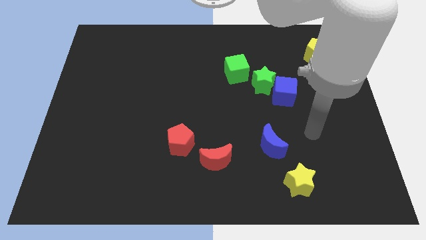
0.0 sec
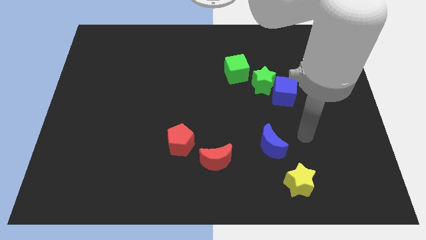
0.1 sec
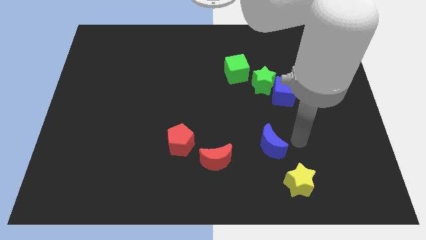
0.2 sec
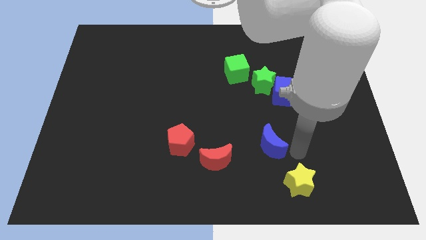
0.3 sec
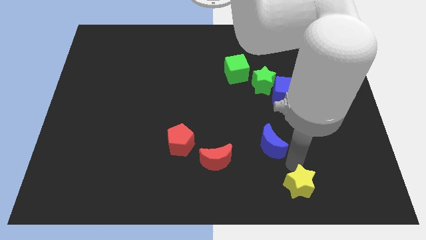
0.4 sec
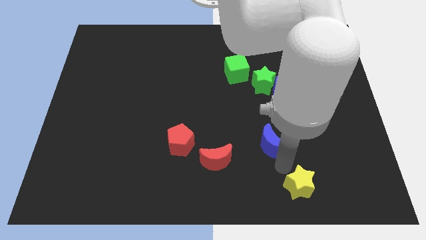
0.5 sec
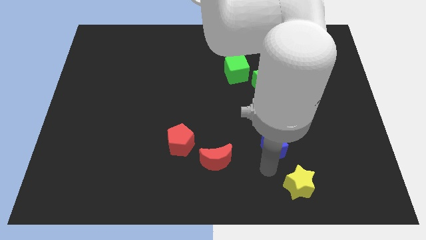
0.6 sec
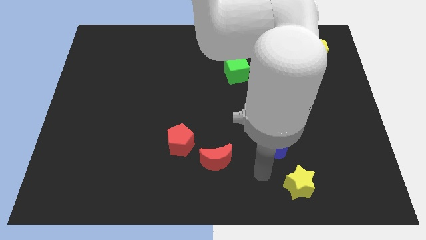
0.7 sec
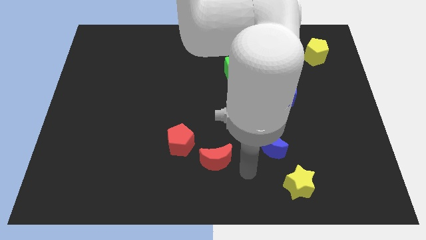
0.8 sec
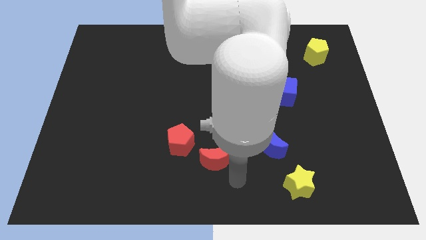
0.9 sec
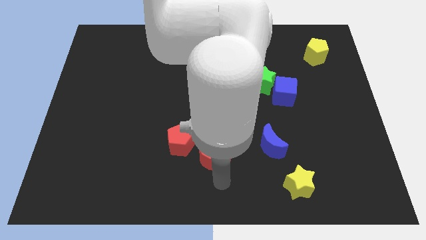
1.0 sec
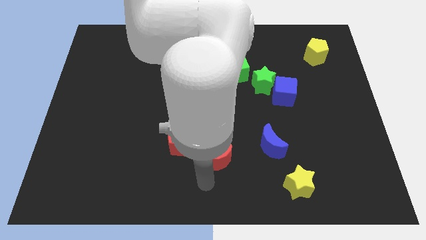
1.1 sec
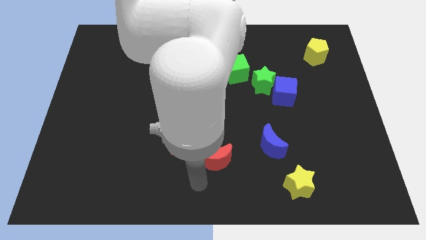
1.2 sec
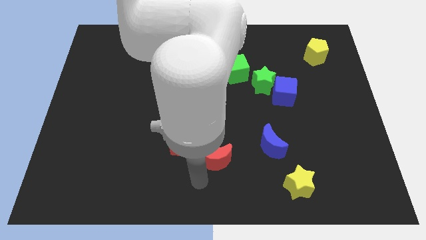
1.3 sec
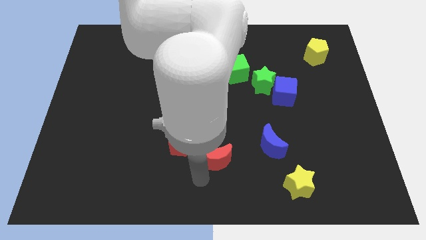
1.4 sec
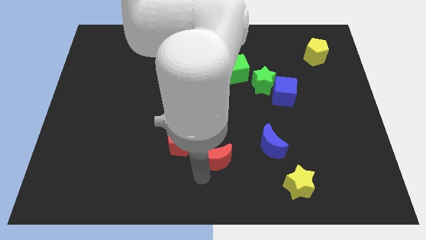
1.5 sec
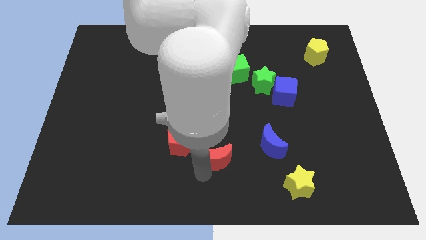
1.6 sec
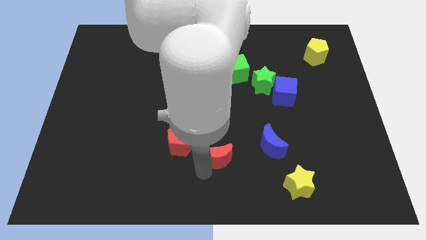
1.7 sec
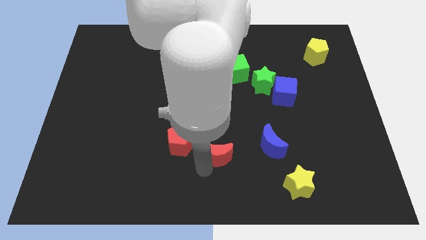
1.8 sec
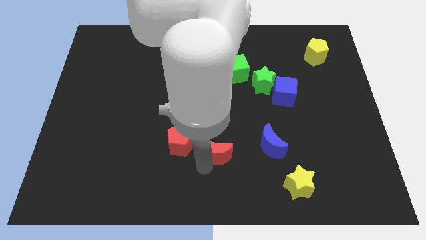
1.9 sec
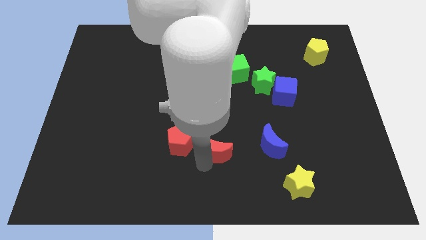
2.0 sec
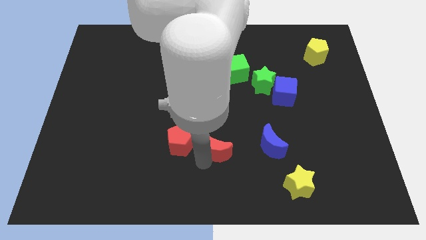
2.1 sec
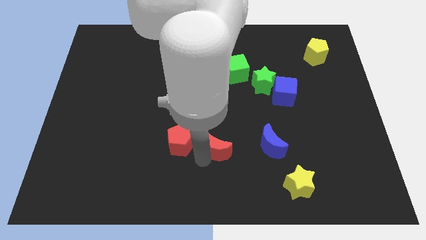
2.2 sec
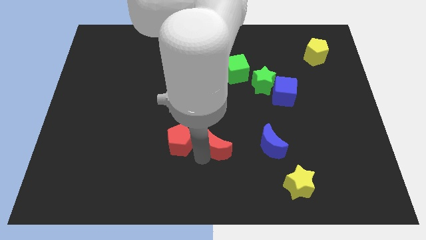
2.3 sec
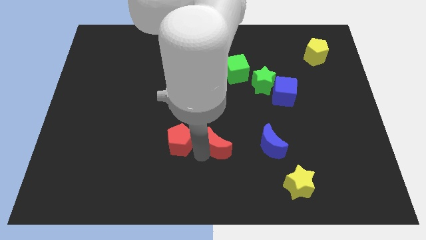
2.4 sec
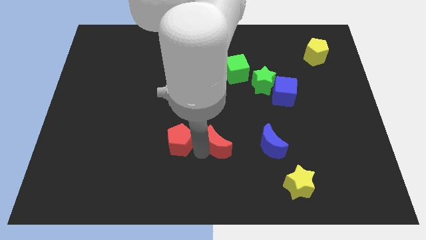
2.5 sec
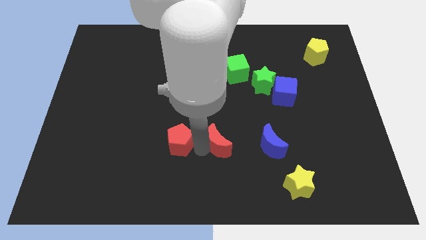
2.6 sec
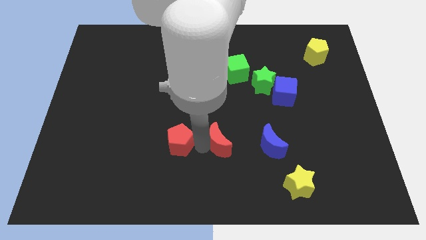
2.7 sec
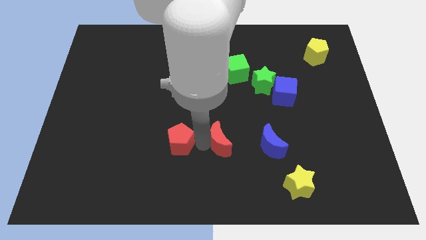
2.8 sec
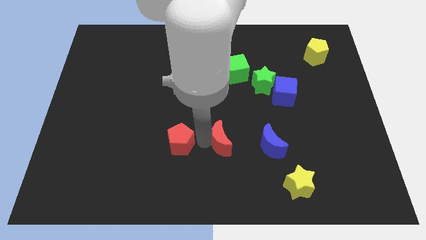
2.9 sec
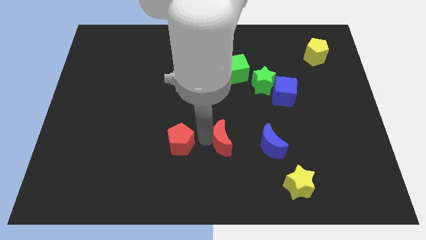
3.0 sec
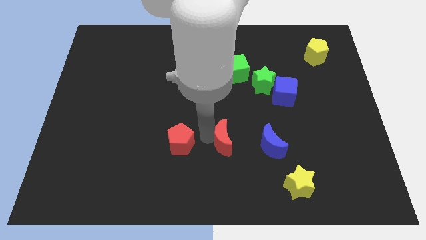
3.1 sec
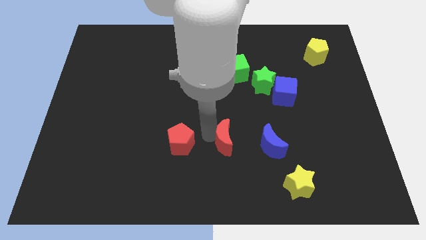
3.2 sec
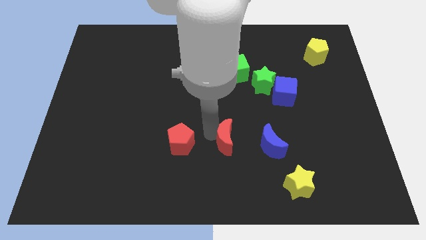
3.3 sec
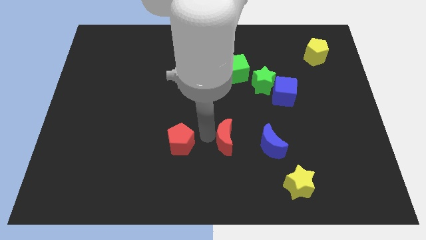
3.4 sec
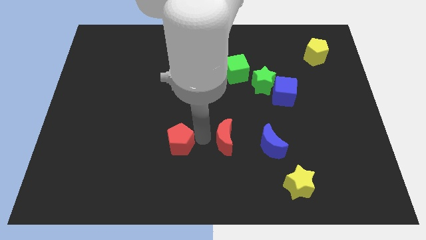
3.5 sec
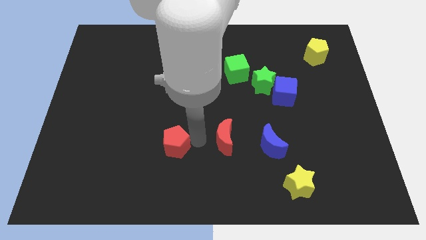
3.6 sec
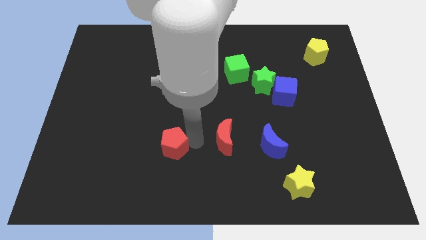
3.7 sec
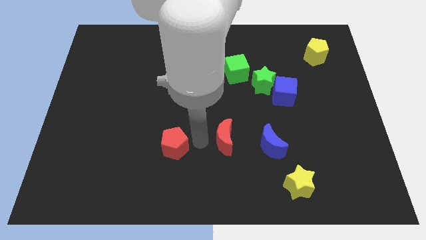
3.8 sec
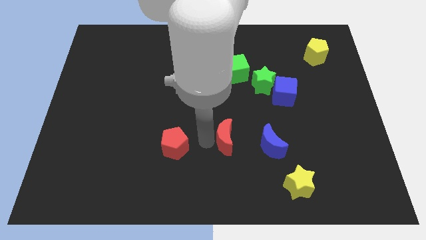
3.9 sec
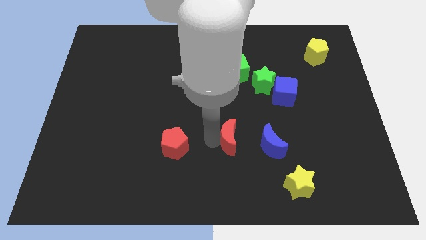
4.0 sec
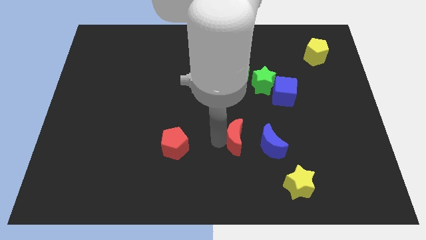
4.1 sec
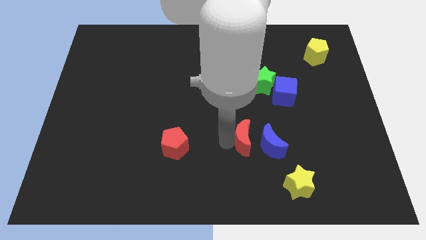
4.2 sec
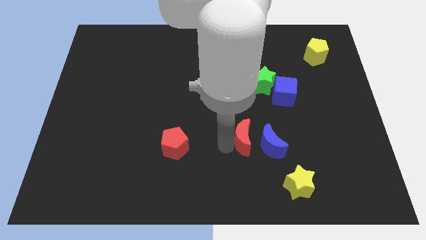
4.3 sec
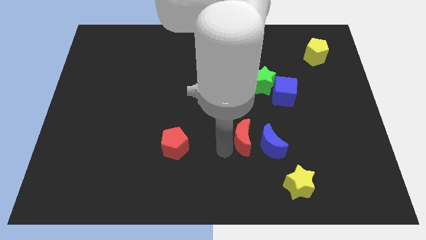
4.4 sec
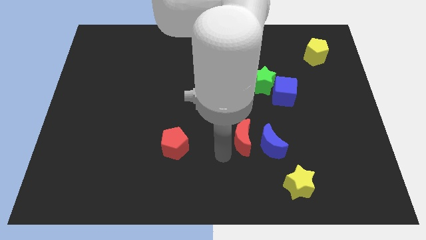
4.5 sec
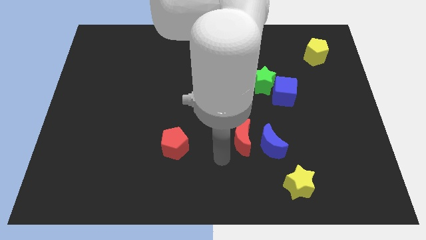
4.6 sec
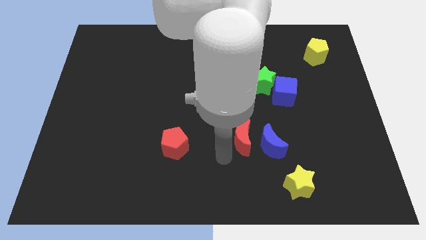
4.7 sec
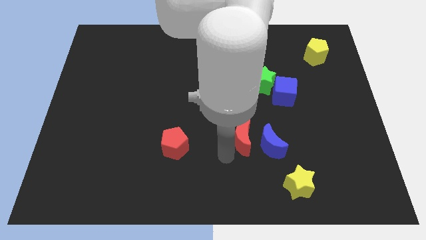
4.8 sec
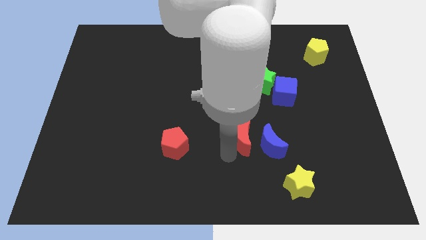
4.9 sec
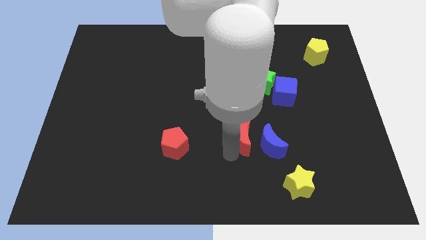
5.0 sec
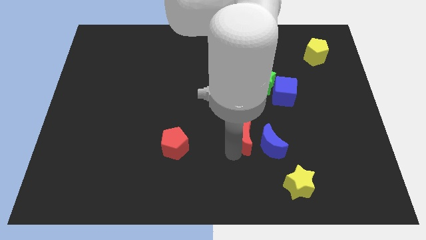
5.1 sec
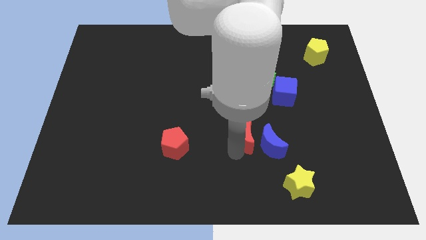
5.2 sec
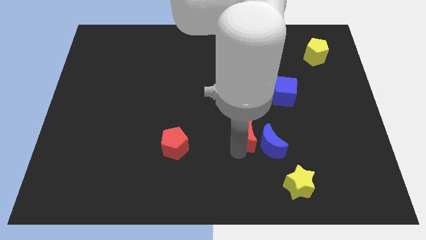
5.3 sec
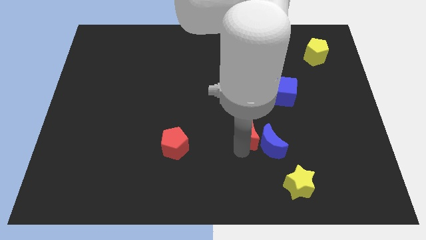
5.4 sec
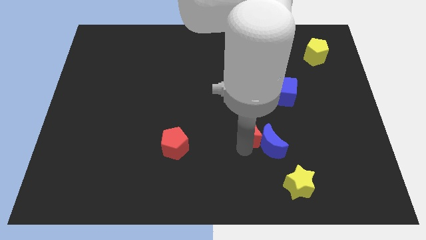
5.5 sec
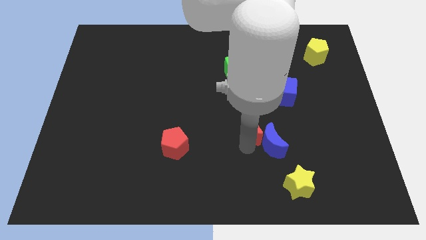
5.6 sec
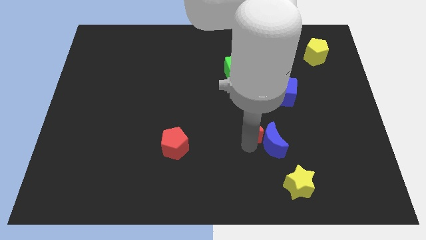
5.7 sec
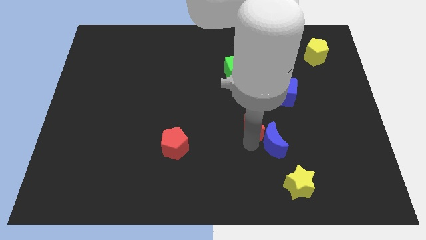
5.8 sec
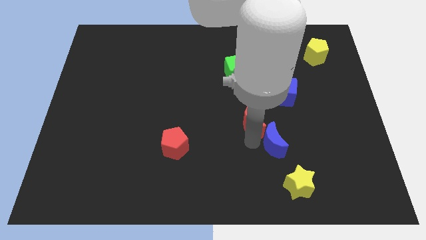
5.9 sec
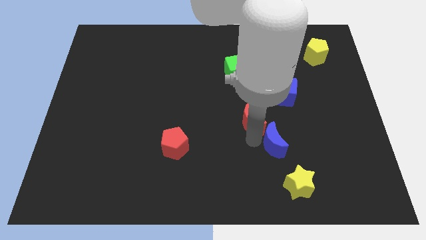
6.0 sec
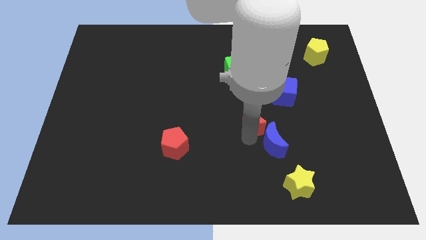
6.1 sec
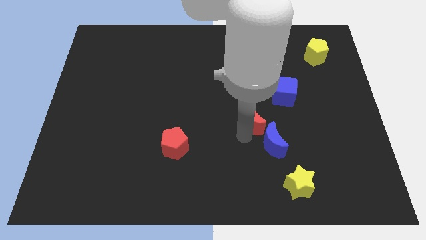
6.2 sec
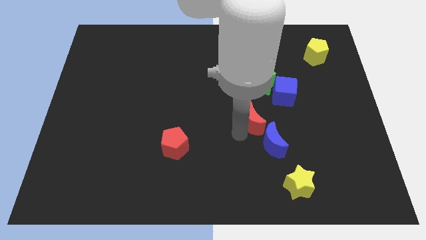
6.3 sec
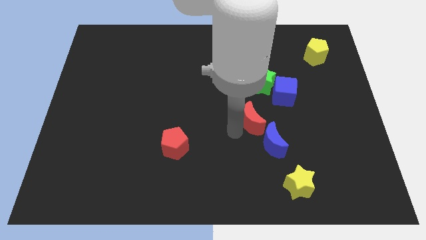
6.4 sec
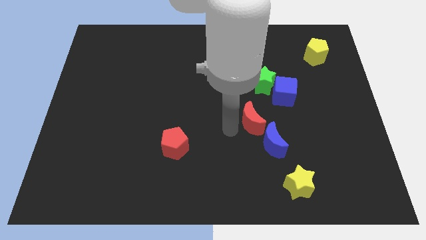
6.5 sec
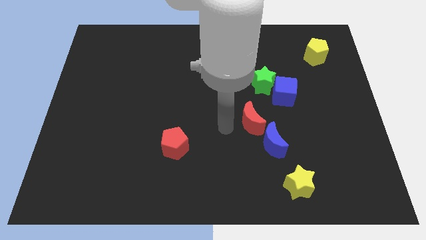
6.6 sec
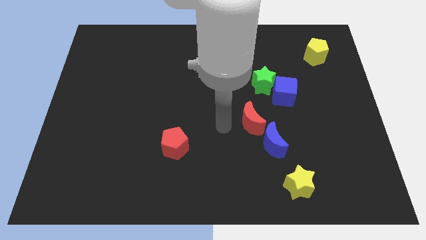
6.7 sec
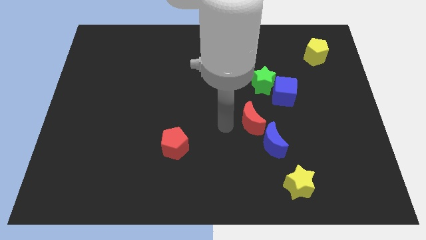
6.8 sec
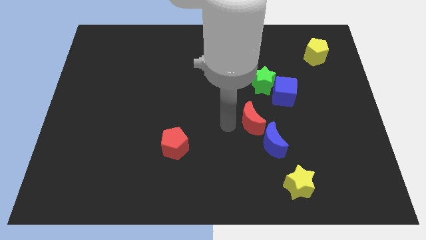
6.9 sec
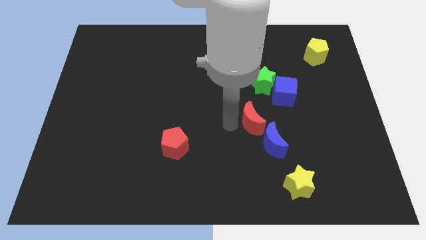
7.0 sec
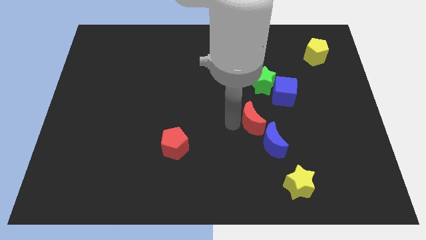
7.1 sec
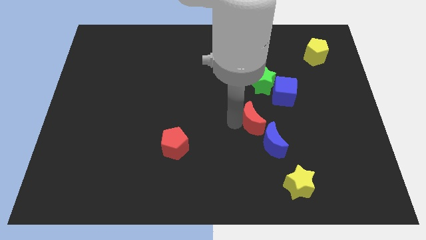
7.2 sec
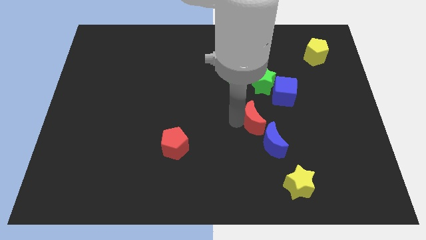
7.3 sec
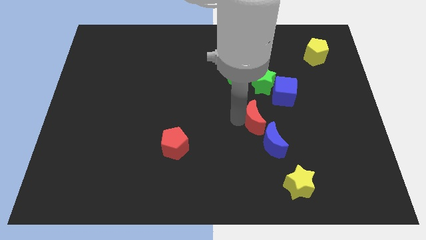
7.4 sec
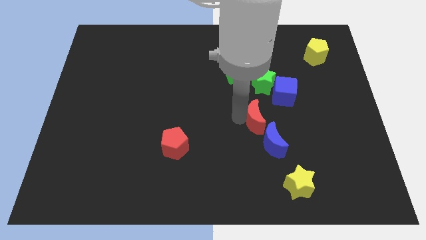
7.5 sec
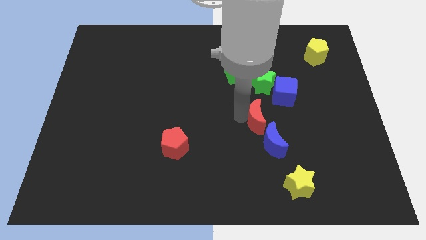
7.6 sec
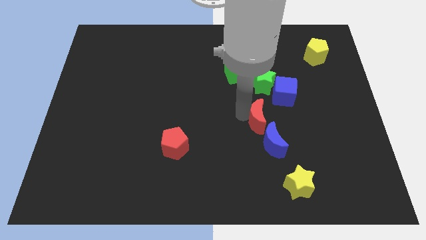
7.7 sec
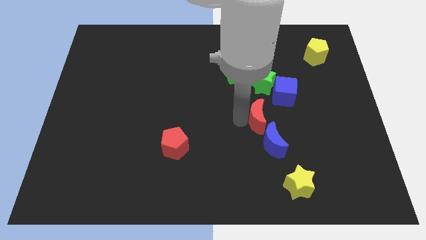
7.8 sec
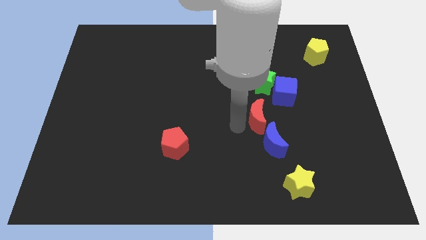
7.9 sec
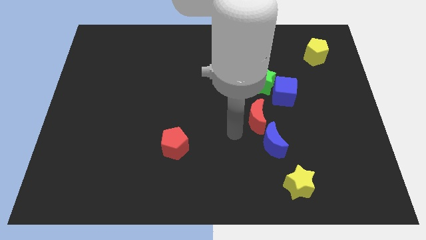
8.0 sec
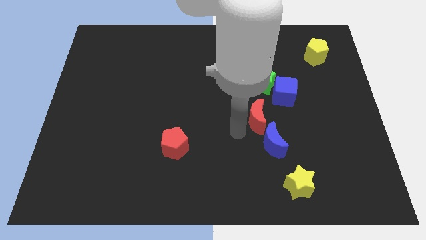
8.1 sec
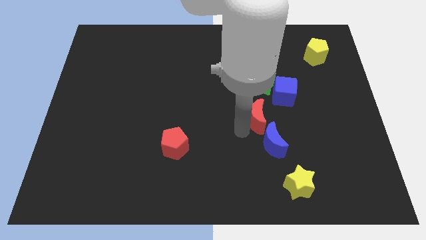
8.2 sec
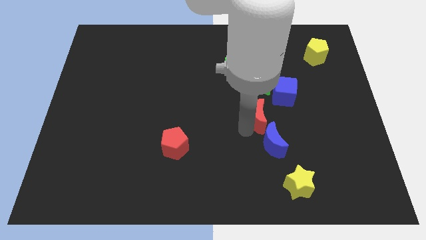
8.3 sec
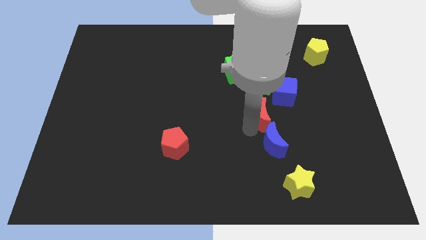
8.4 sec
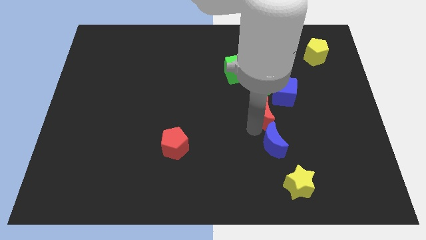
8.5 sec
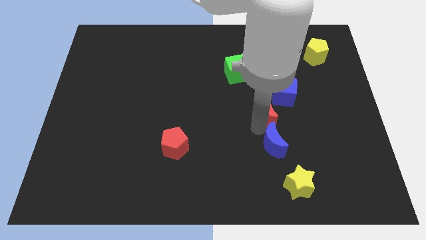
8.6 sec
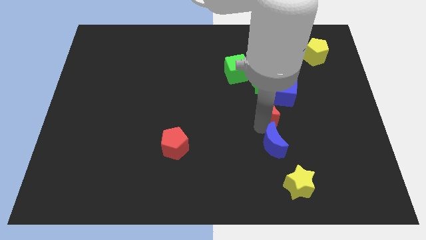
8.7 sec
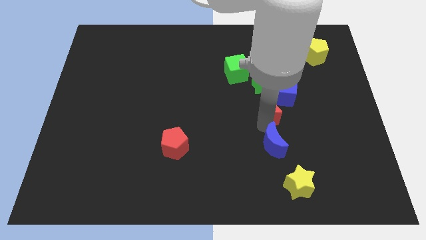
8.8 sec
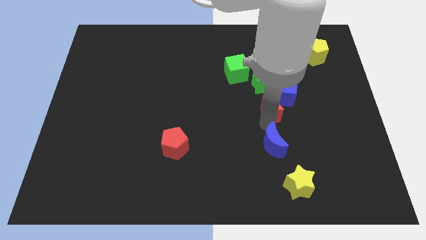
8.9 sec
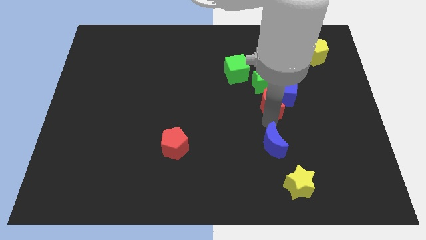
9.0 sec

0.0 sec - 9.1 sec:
slide the red moon diagonally down and to the right of the green star
